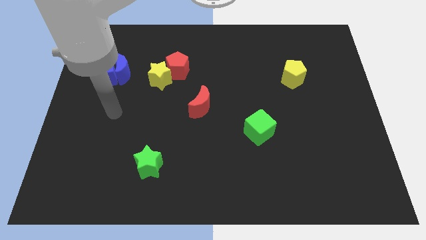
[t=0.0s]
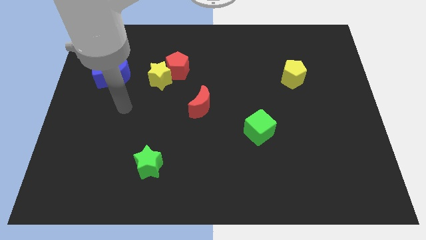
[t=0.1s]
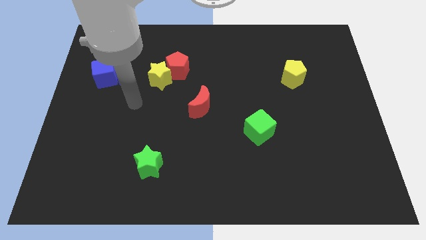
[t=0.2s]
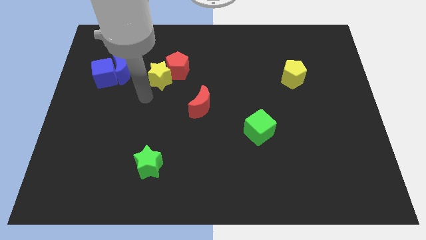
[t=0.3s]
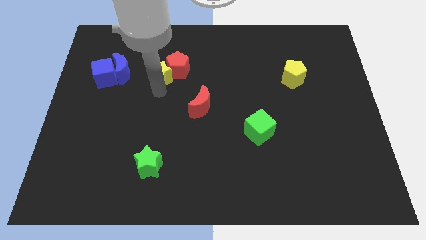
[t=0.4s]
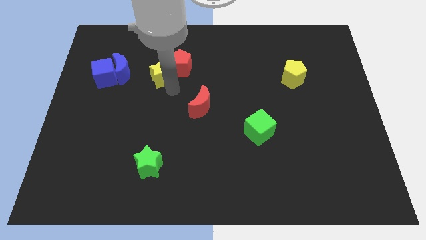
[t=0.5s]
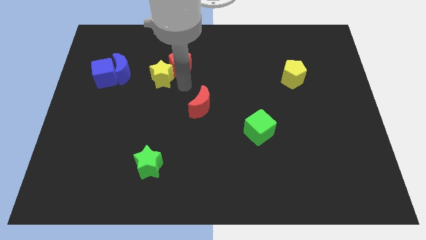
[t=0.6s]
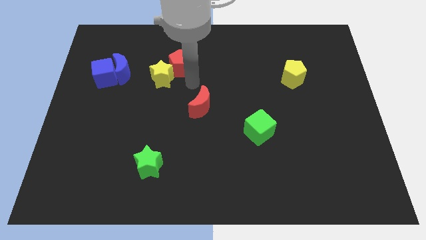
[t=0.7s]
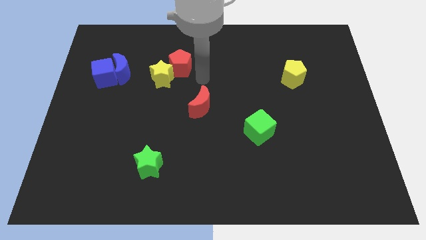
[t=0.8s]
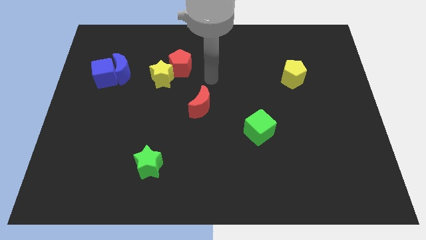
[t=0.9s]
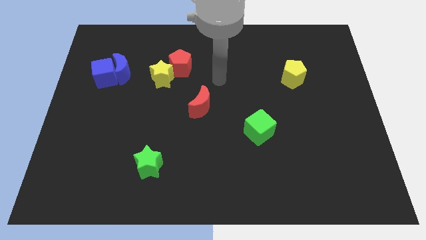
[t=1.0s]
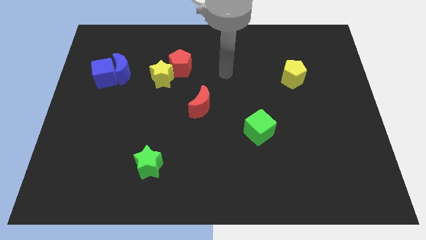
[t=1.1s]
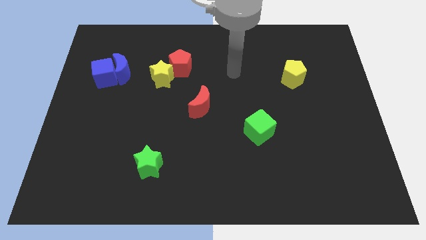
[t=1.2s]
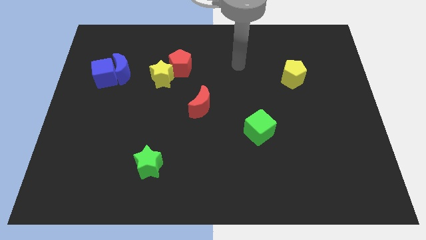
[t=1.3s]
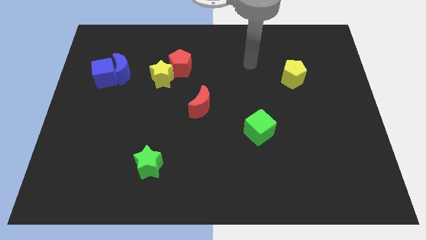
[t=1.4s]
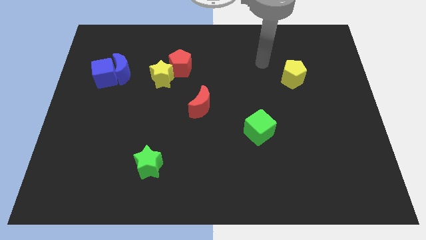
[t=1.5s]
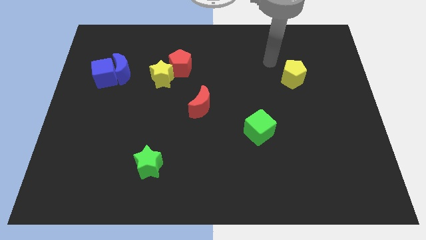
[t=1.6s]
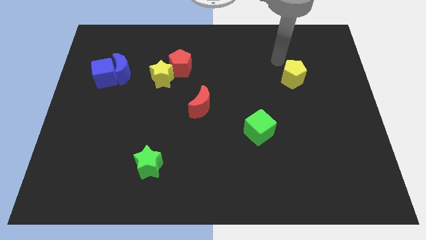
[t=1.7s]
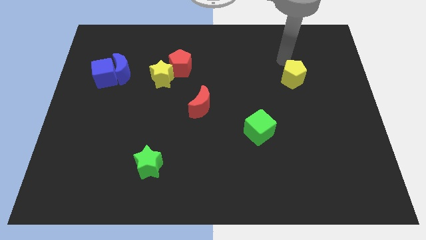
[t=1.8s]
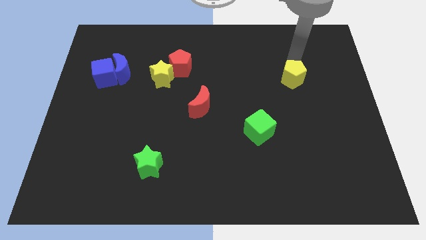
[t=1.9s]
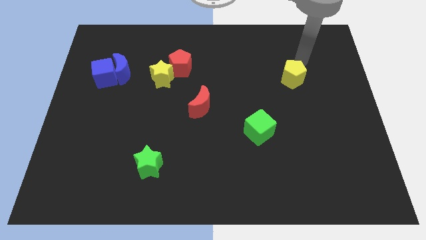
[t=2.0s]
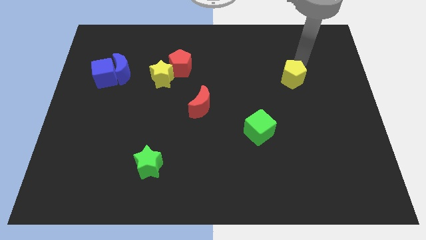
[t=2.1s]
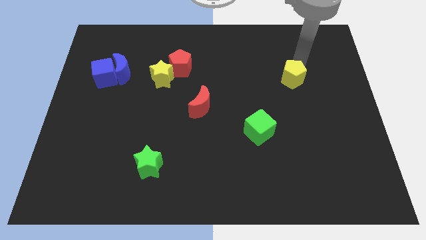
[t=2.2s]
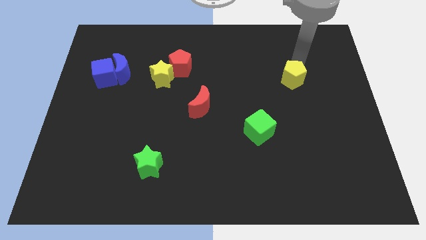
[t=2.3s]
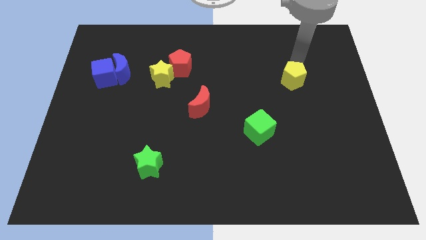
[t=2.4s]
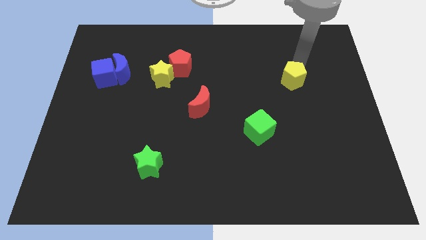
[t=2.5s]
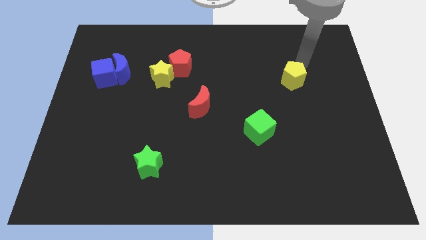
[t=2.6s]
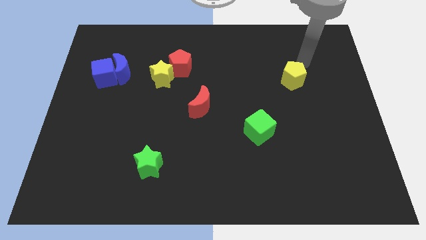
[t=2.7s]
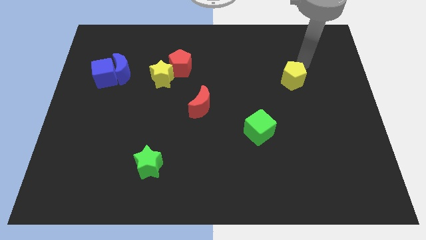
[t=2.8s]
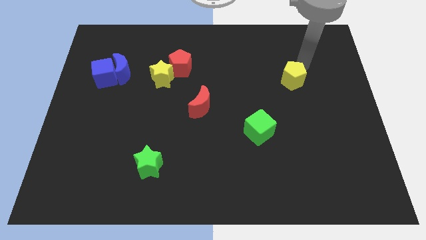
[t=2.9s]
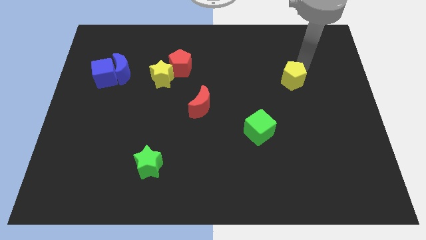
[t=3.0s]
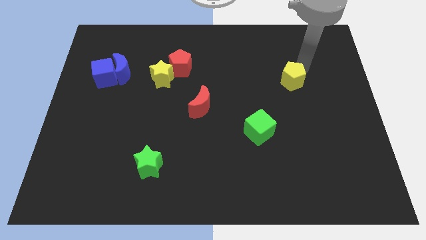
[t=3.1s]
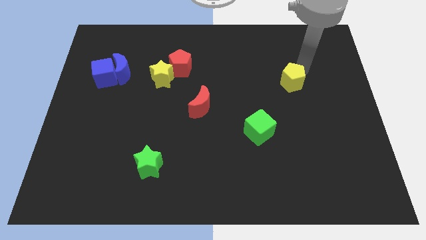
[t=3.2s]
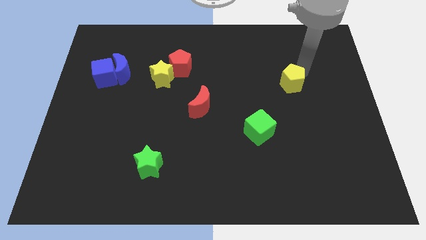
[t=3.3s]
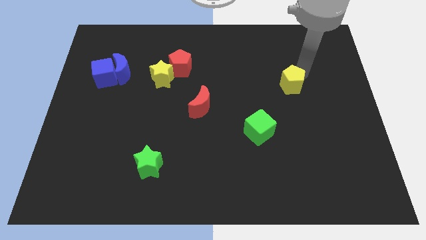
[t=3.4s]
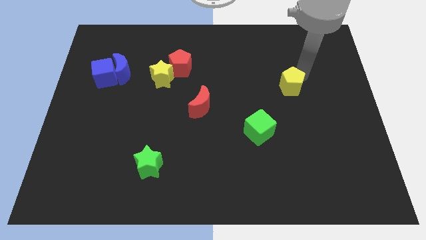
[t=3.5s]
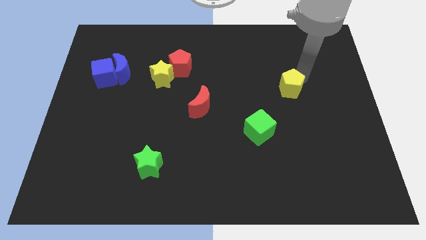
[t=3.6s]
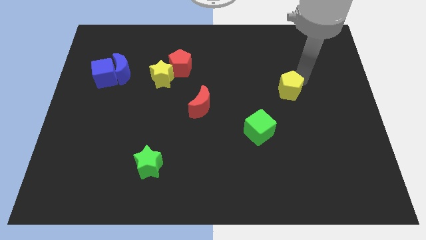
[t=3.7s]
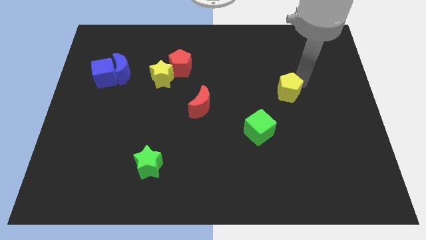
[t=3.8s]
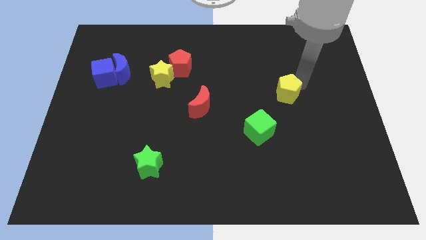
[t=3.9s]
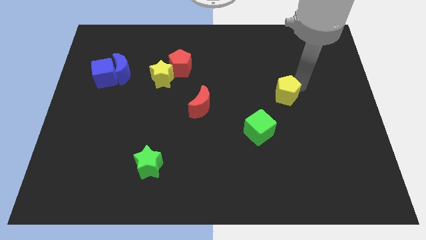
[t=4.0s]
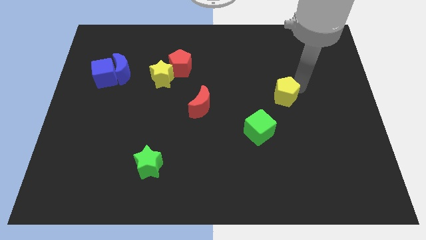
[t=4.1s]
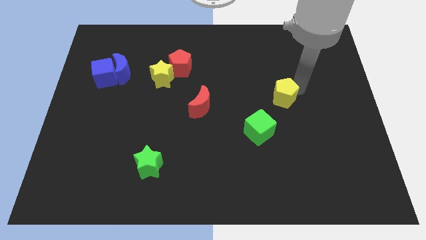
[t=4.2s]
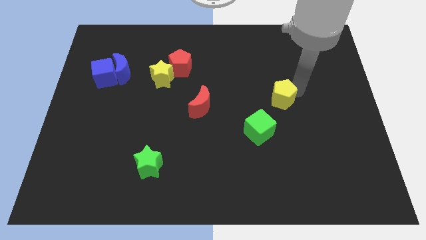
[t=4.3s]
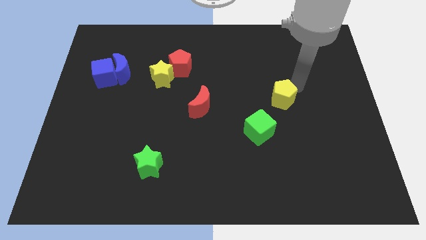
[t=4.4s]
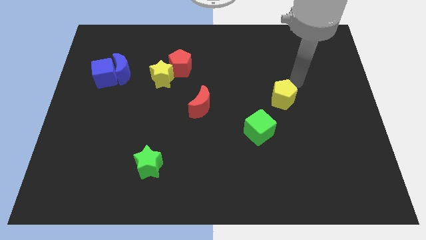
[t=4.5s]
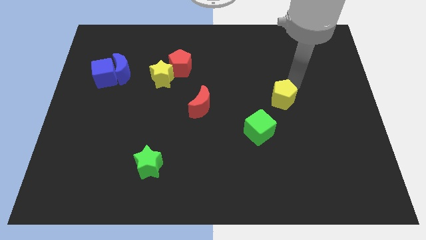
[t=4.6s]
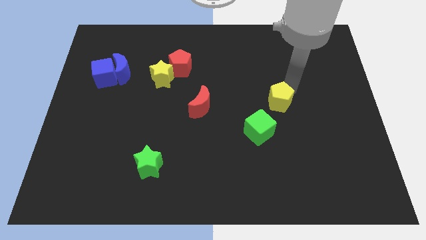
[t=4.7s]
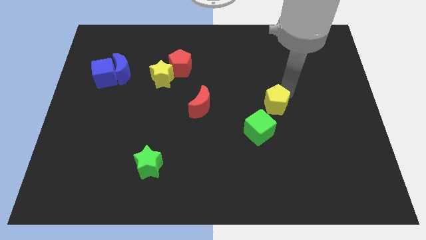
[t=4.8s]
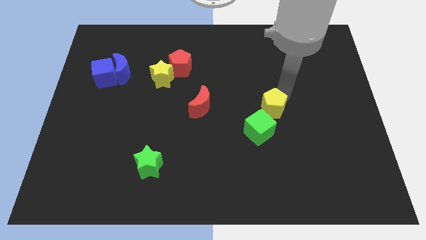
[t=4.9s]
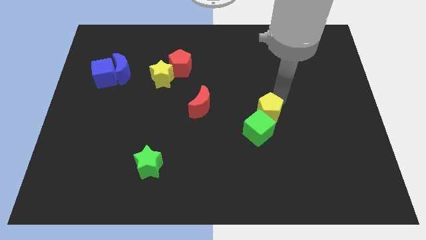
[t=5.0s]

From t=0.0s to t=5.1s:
put the yellow pentagon to the green cube

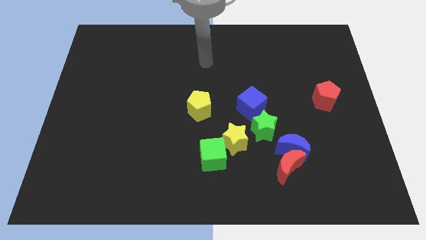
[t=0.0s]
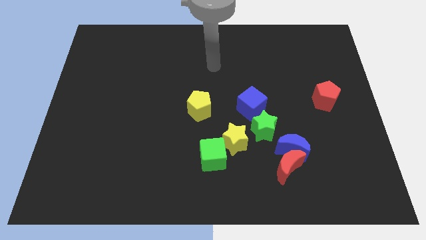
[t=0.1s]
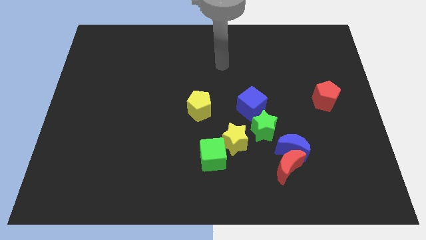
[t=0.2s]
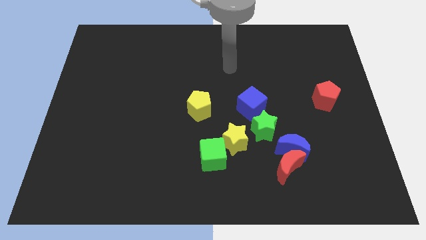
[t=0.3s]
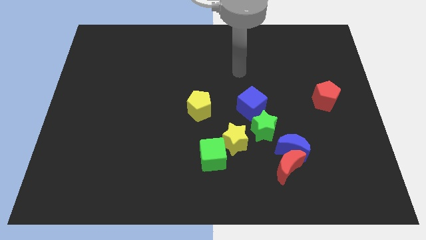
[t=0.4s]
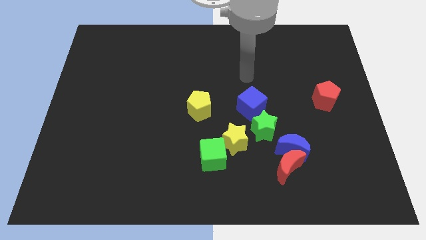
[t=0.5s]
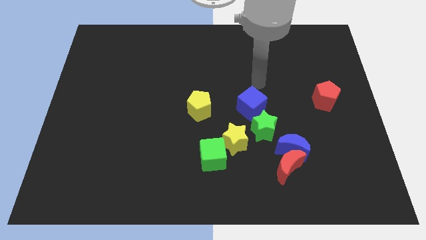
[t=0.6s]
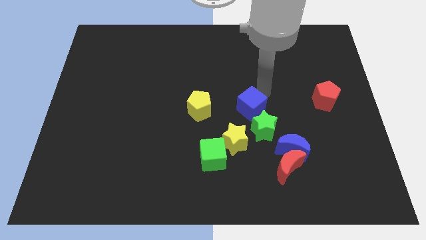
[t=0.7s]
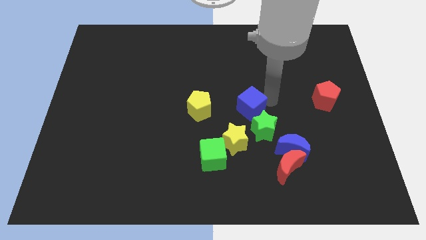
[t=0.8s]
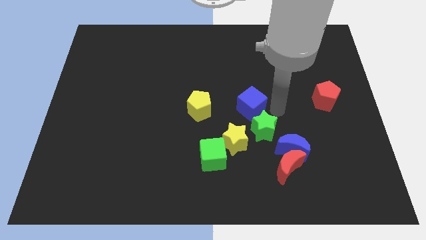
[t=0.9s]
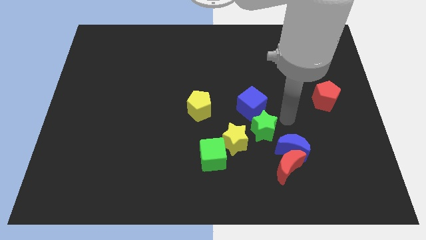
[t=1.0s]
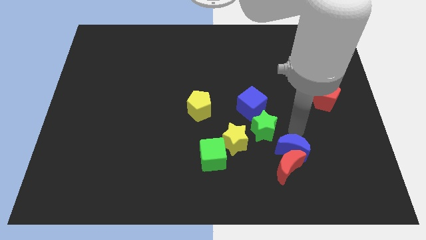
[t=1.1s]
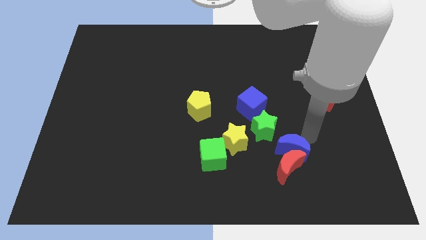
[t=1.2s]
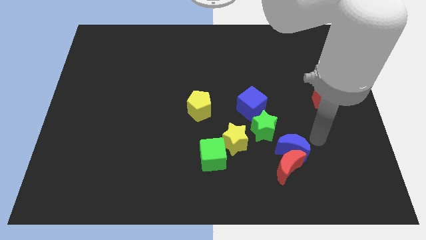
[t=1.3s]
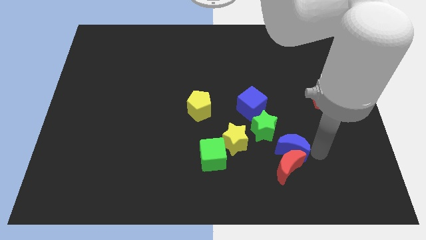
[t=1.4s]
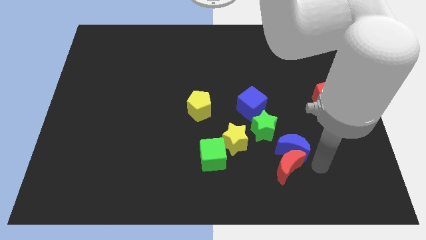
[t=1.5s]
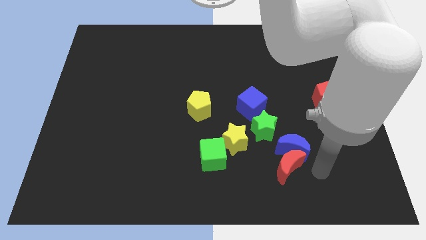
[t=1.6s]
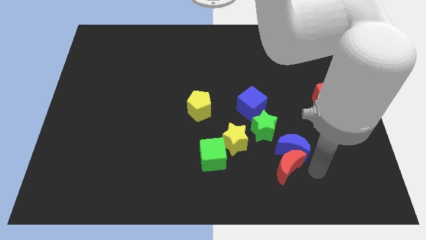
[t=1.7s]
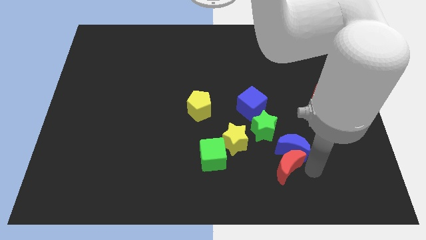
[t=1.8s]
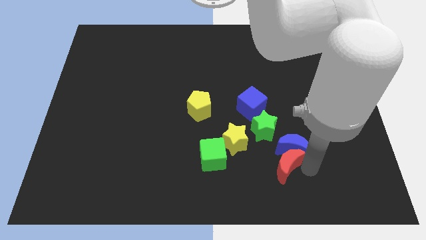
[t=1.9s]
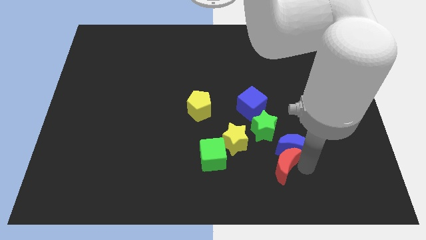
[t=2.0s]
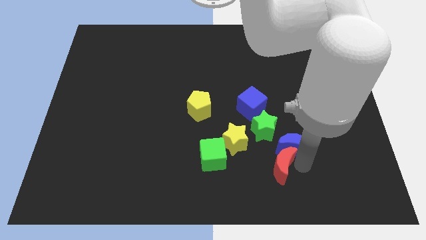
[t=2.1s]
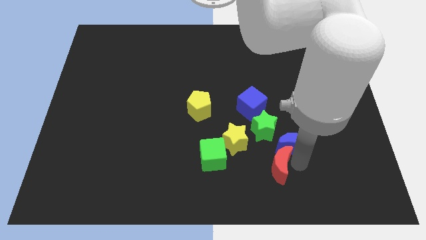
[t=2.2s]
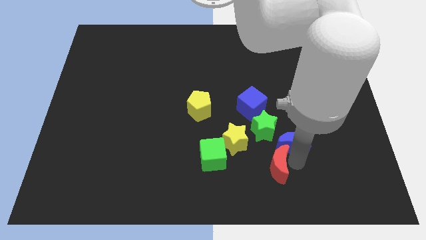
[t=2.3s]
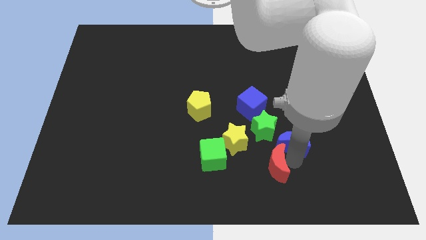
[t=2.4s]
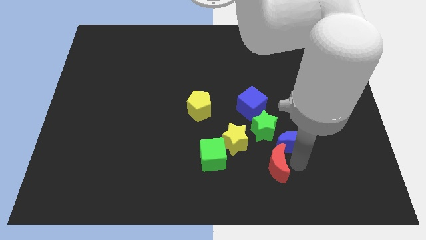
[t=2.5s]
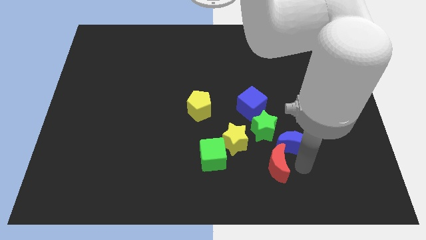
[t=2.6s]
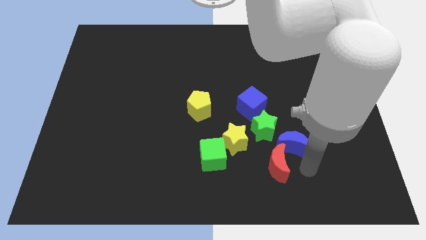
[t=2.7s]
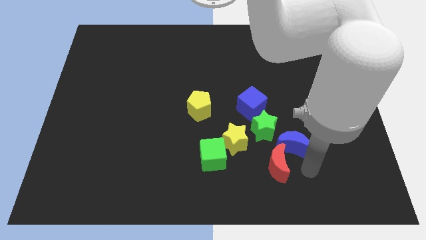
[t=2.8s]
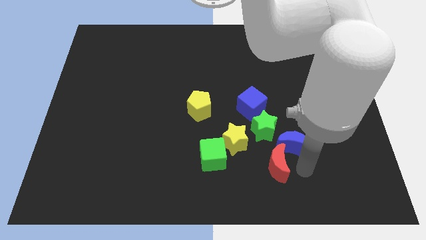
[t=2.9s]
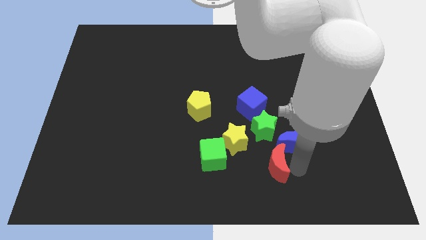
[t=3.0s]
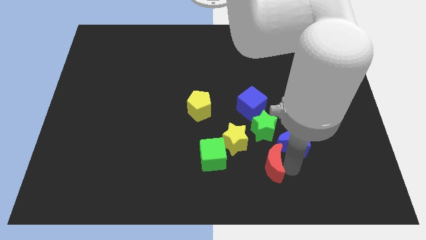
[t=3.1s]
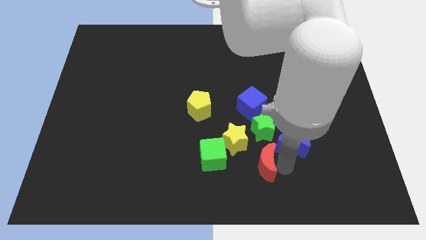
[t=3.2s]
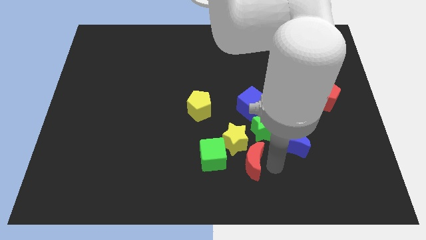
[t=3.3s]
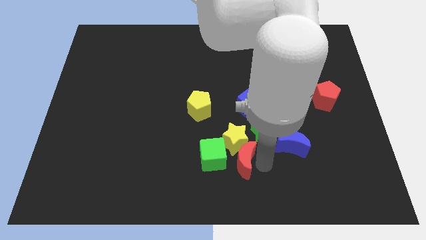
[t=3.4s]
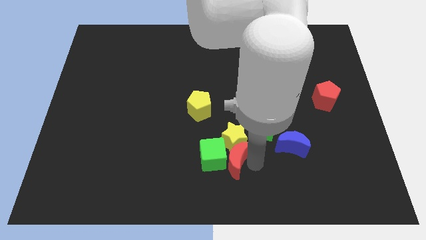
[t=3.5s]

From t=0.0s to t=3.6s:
push the red moon towards the green cube
